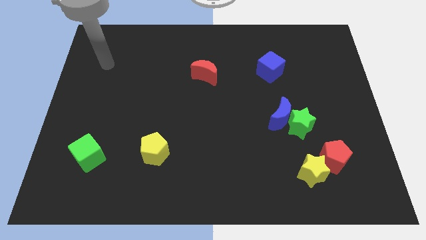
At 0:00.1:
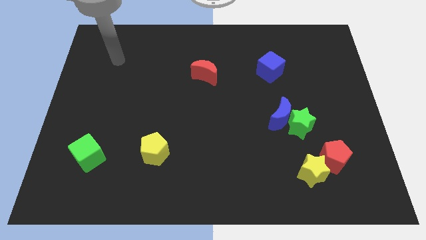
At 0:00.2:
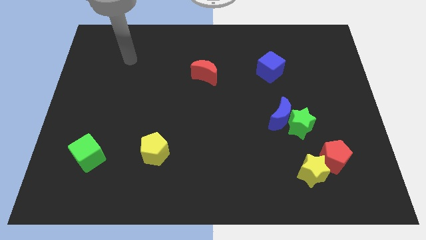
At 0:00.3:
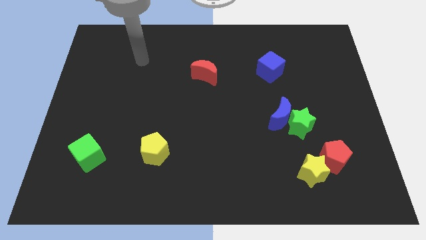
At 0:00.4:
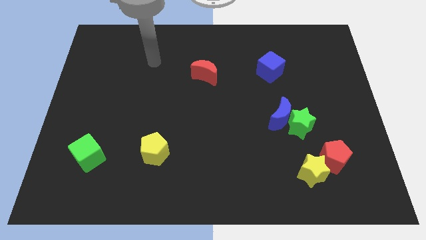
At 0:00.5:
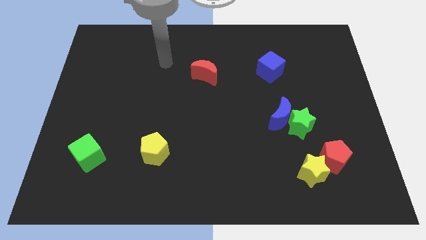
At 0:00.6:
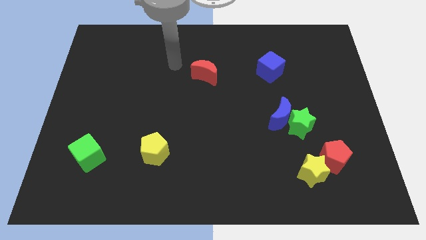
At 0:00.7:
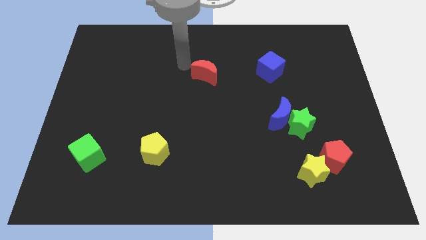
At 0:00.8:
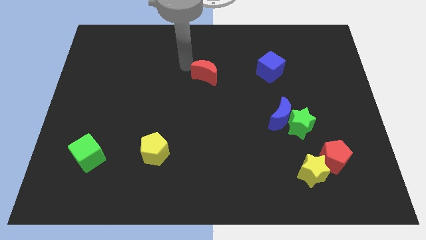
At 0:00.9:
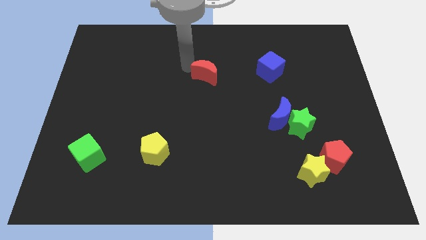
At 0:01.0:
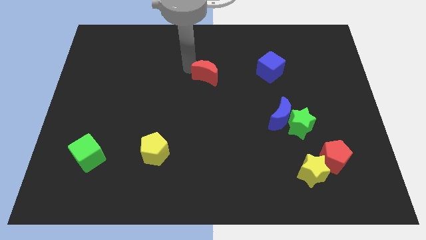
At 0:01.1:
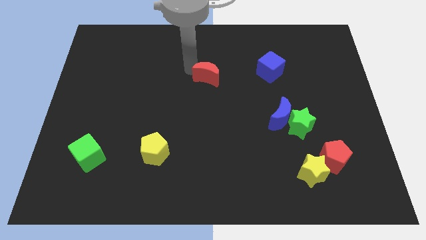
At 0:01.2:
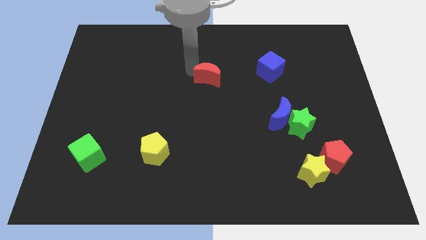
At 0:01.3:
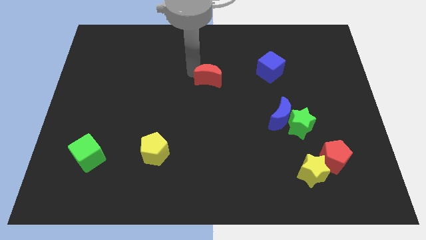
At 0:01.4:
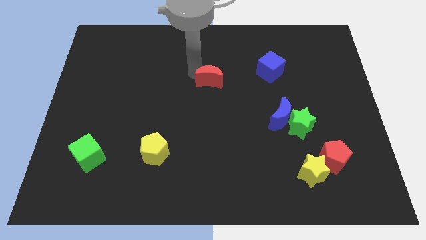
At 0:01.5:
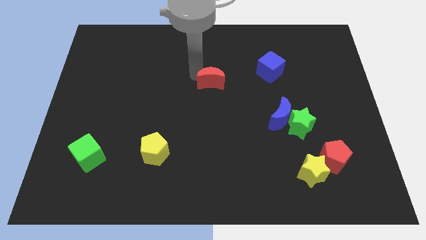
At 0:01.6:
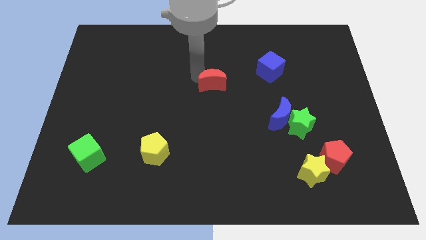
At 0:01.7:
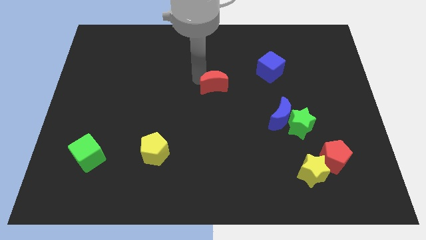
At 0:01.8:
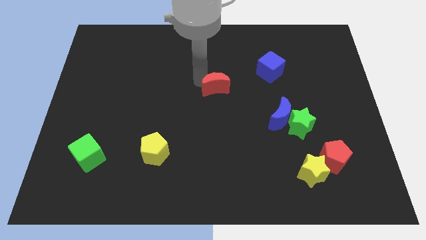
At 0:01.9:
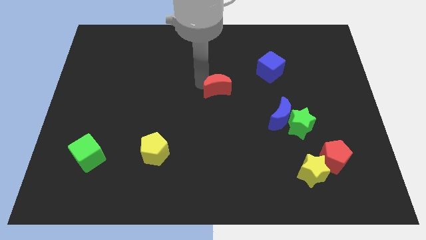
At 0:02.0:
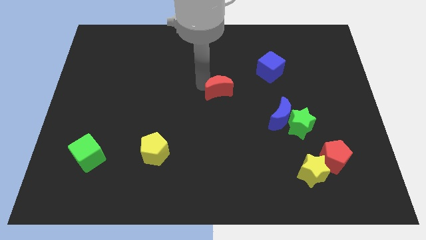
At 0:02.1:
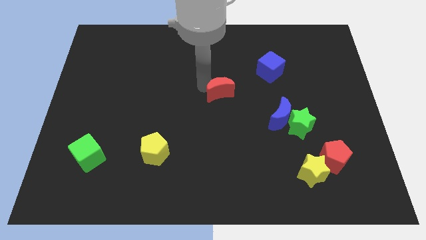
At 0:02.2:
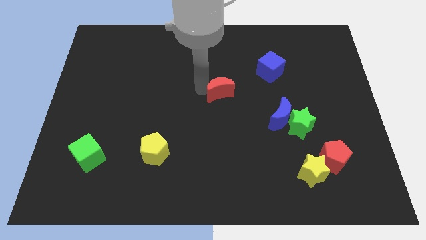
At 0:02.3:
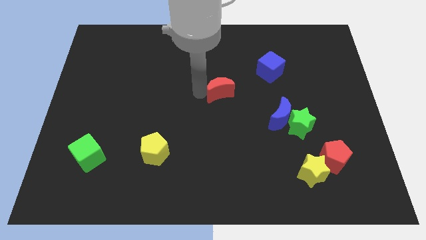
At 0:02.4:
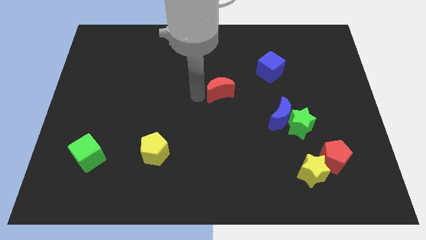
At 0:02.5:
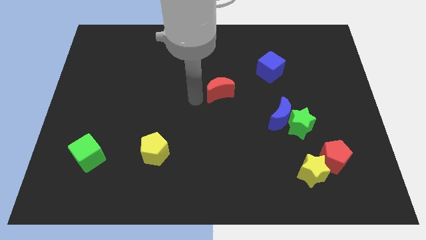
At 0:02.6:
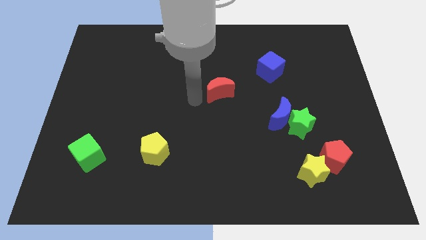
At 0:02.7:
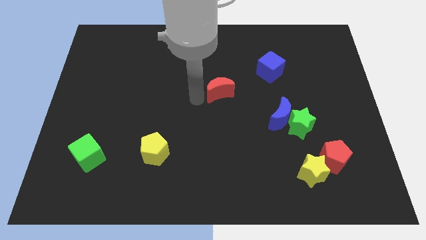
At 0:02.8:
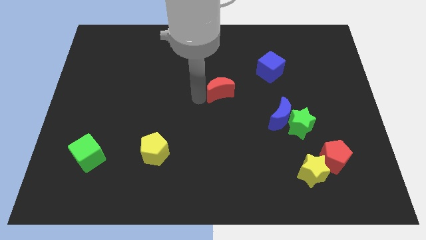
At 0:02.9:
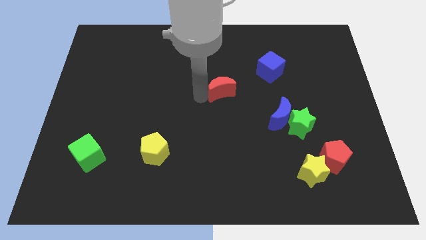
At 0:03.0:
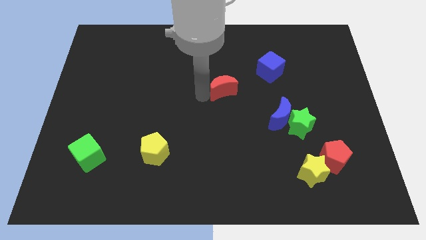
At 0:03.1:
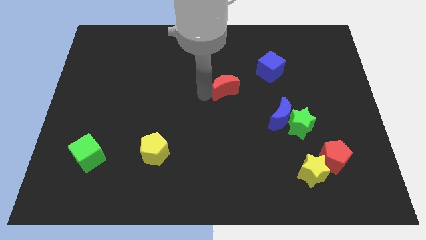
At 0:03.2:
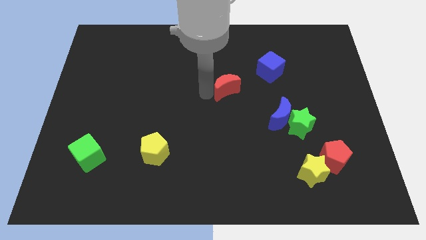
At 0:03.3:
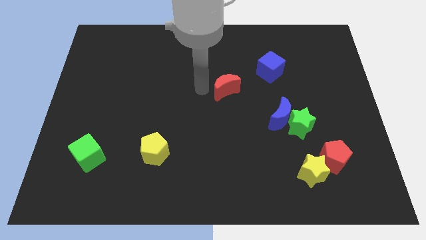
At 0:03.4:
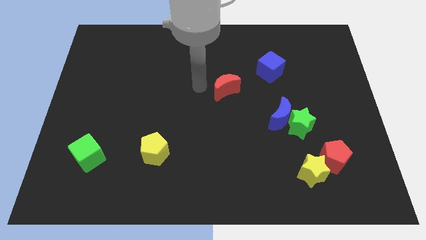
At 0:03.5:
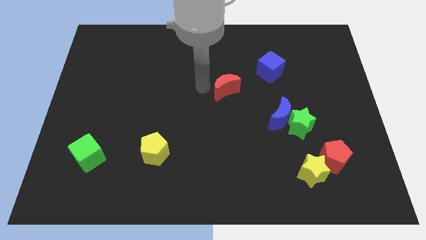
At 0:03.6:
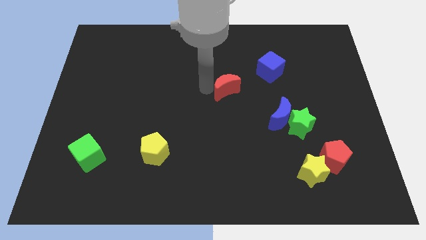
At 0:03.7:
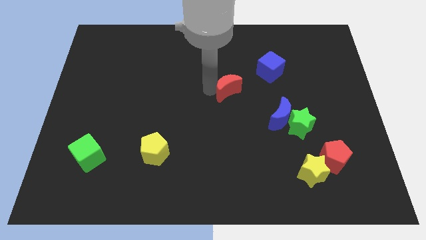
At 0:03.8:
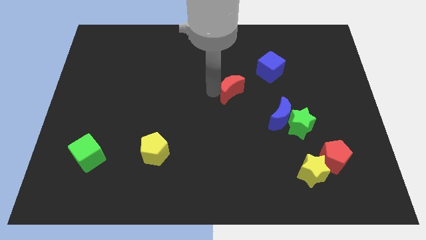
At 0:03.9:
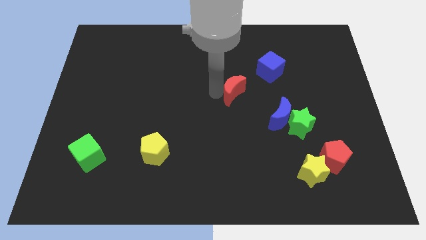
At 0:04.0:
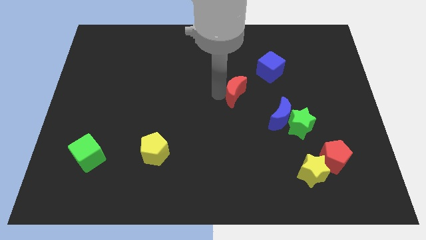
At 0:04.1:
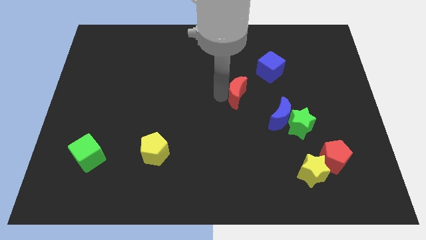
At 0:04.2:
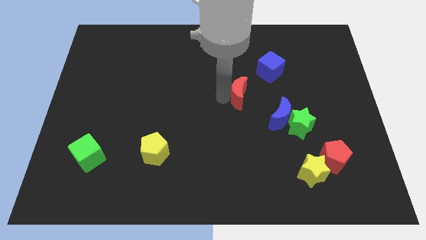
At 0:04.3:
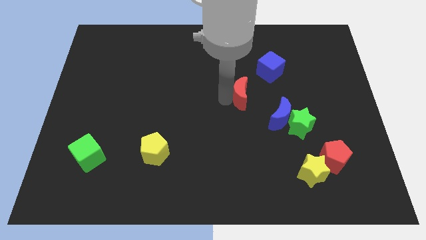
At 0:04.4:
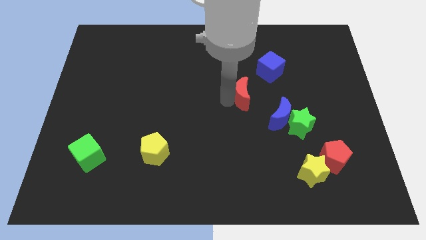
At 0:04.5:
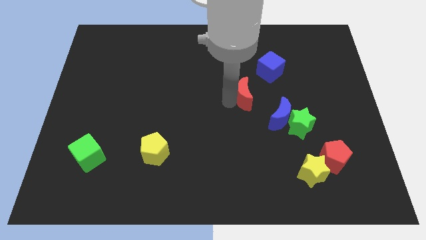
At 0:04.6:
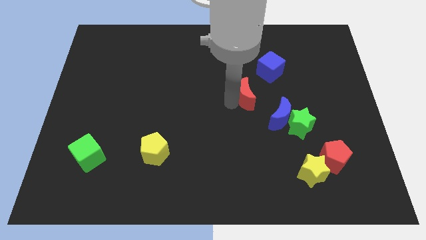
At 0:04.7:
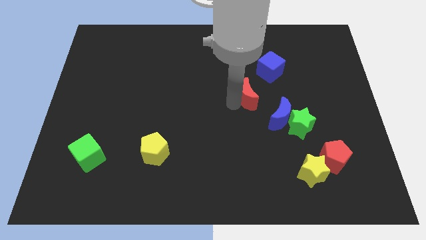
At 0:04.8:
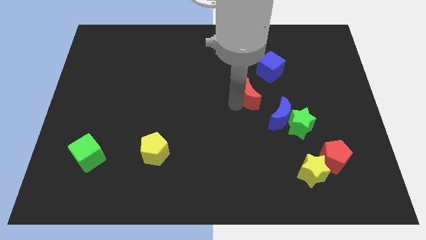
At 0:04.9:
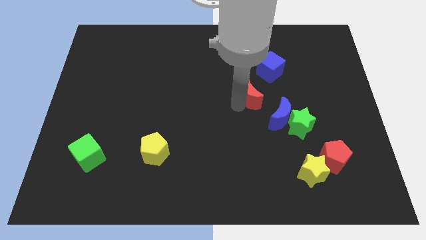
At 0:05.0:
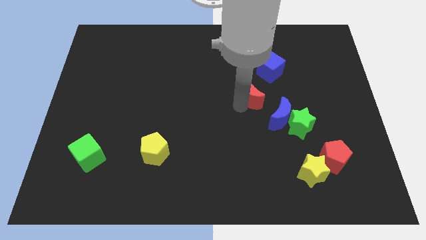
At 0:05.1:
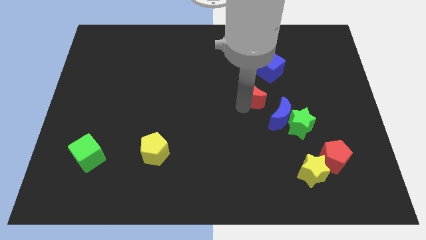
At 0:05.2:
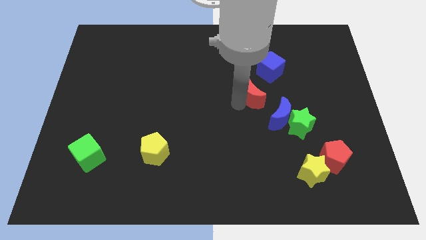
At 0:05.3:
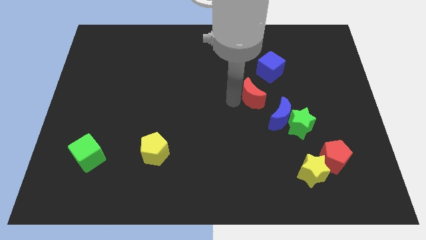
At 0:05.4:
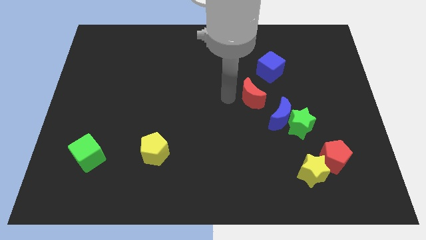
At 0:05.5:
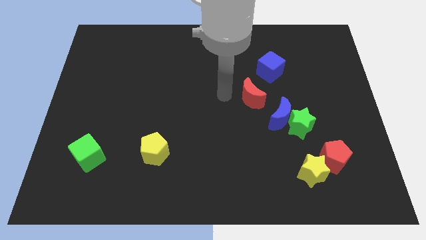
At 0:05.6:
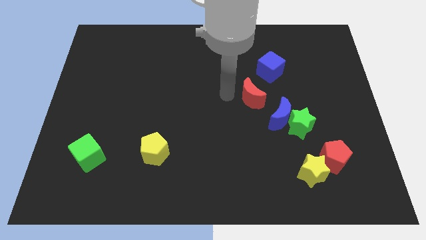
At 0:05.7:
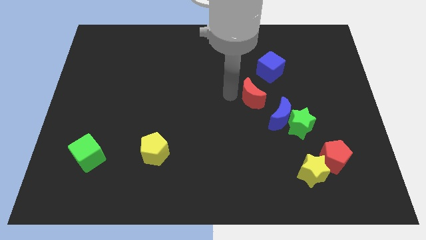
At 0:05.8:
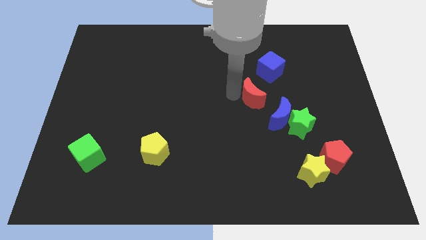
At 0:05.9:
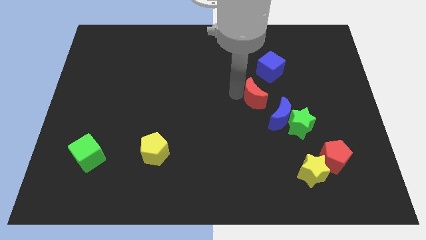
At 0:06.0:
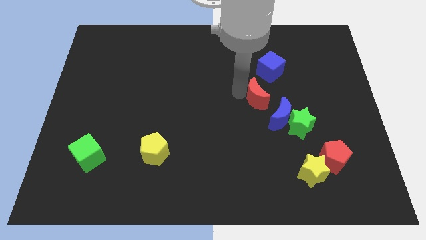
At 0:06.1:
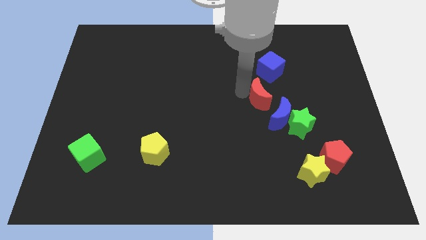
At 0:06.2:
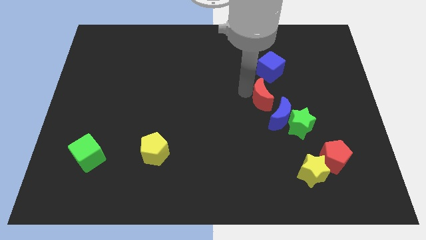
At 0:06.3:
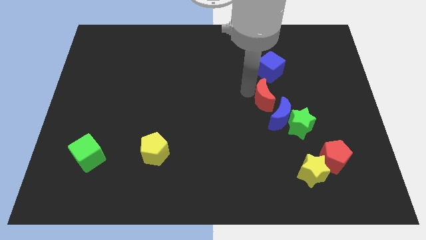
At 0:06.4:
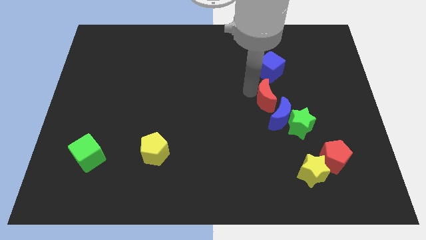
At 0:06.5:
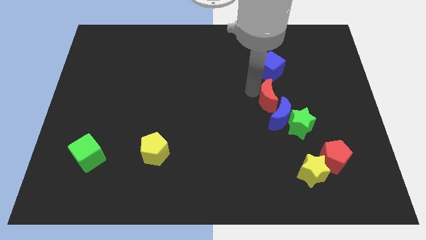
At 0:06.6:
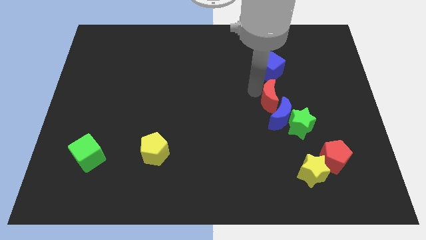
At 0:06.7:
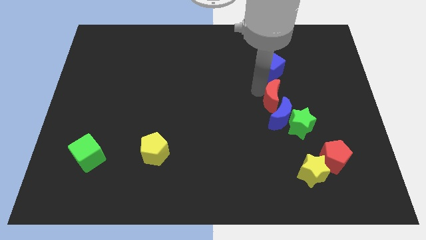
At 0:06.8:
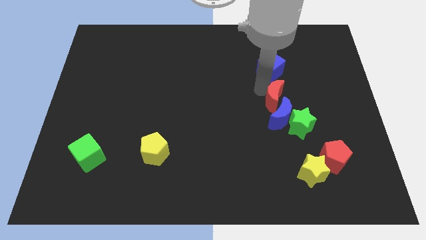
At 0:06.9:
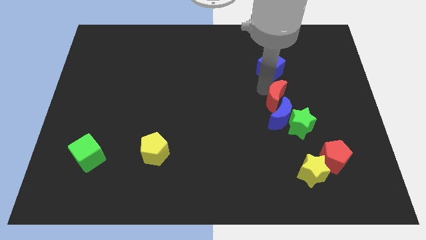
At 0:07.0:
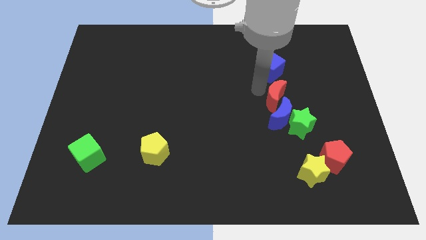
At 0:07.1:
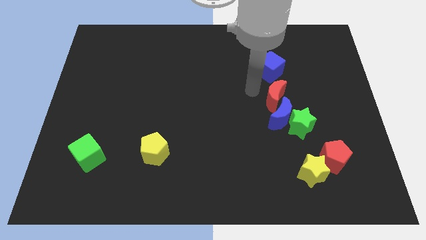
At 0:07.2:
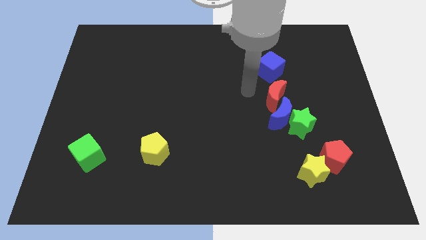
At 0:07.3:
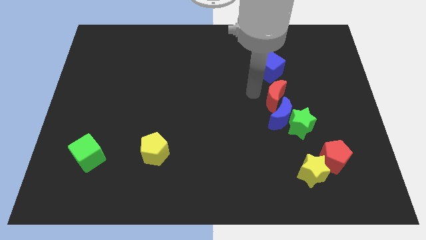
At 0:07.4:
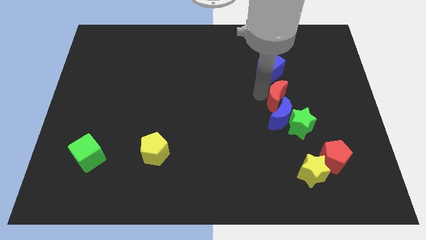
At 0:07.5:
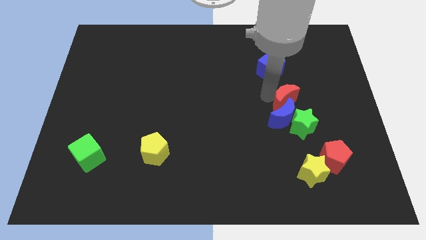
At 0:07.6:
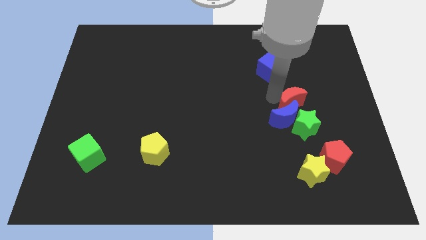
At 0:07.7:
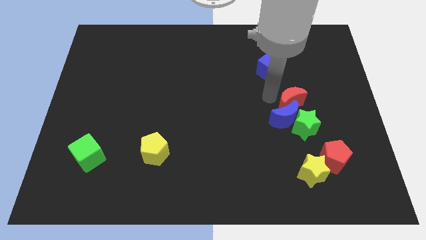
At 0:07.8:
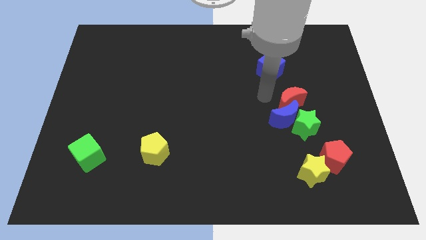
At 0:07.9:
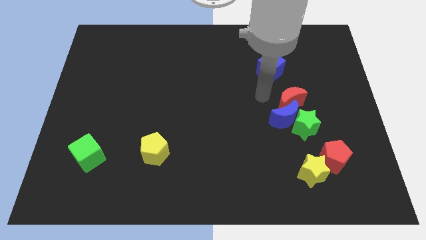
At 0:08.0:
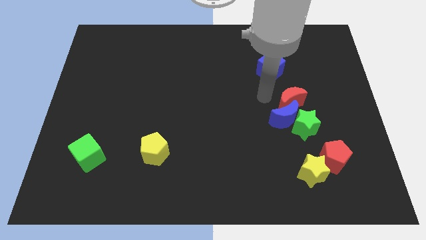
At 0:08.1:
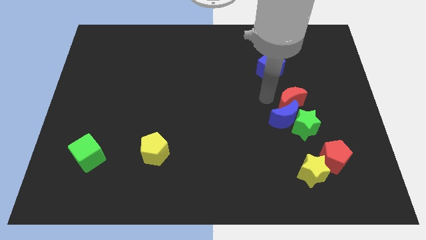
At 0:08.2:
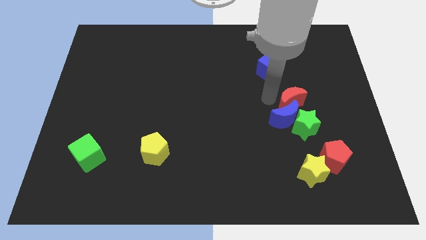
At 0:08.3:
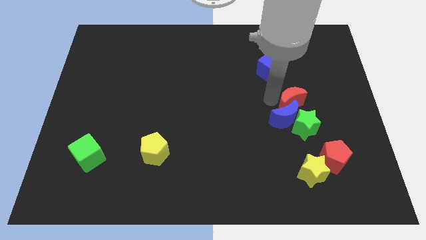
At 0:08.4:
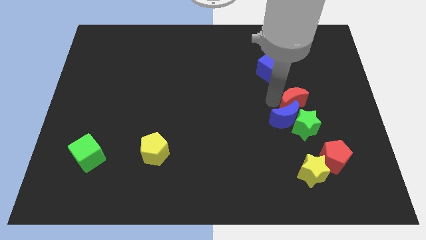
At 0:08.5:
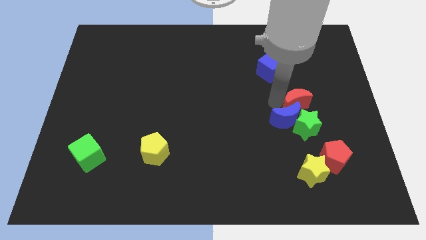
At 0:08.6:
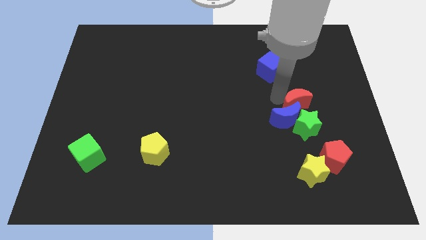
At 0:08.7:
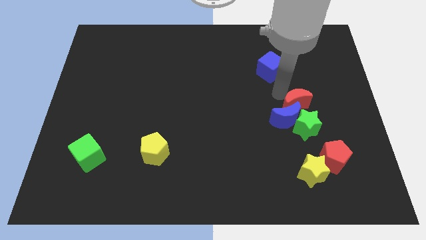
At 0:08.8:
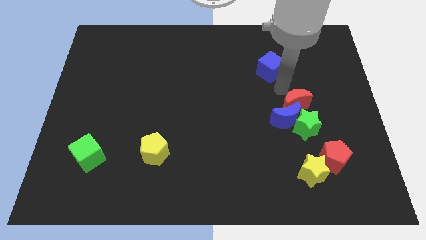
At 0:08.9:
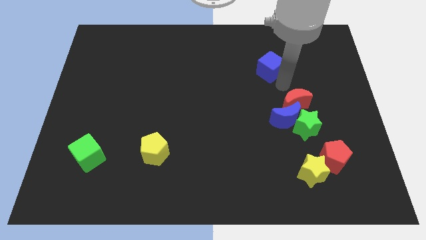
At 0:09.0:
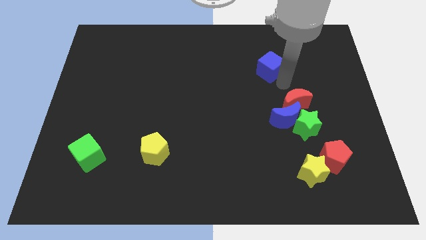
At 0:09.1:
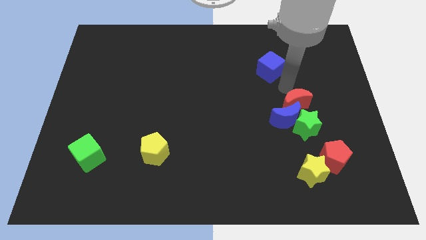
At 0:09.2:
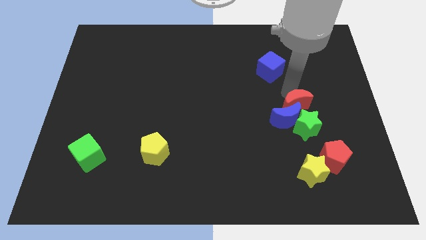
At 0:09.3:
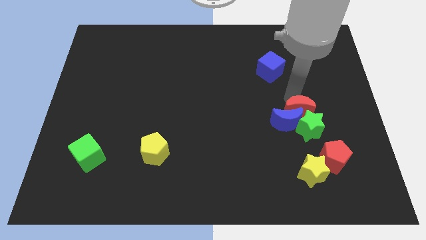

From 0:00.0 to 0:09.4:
put the red moon to the green star
